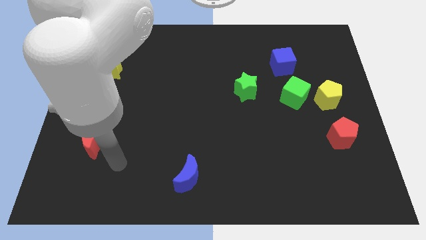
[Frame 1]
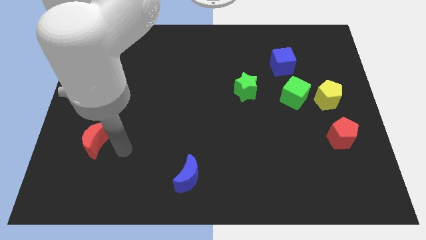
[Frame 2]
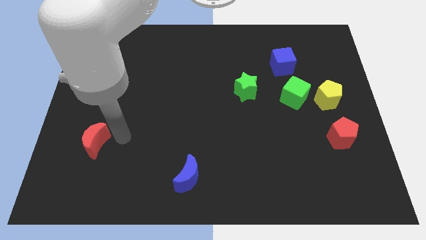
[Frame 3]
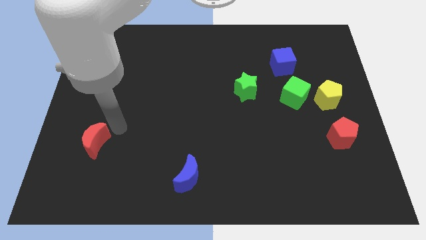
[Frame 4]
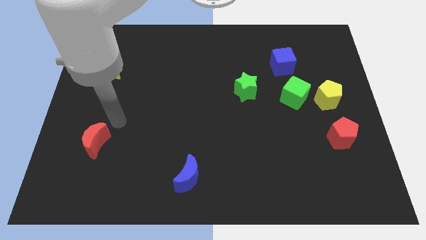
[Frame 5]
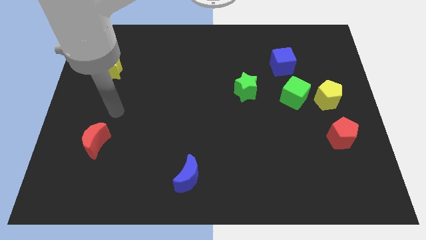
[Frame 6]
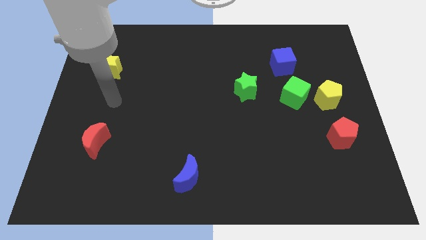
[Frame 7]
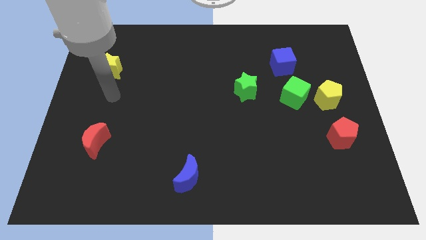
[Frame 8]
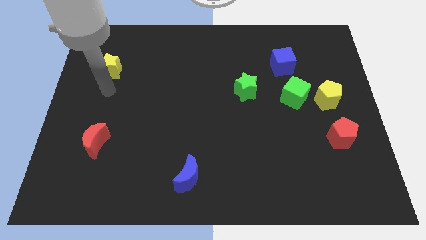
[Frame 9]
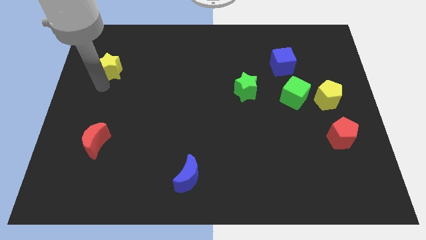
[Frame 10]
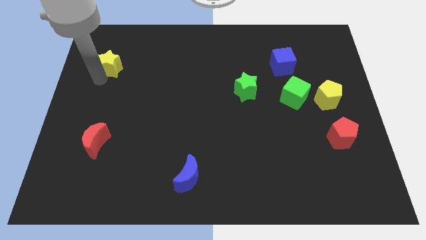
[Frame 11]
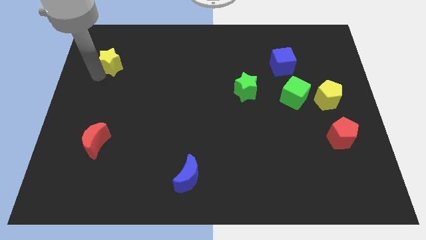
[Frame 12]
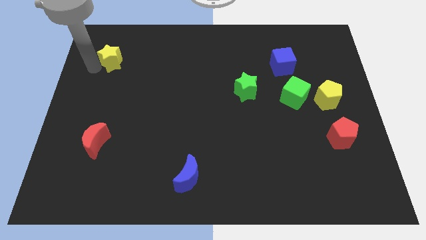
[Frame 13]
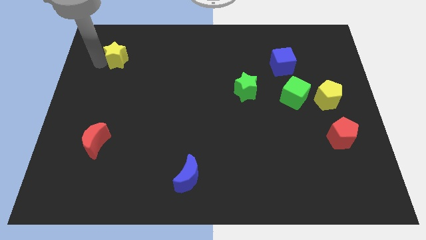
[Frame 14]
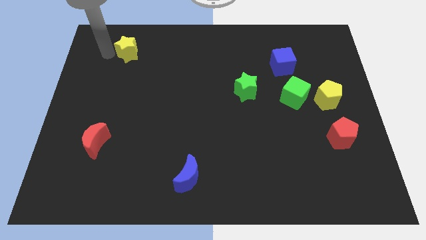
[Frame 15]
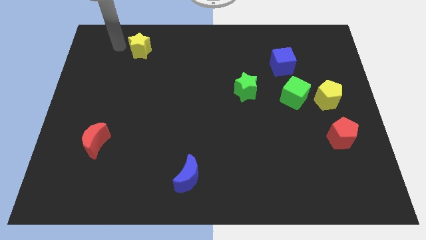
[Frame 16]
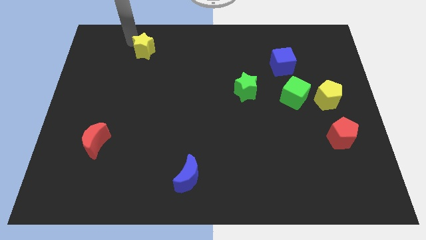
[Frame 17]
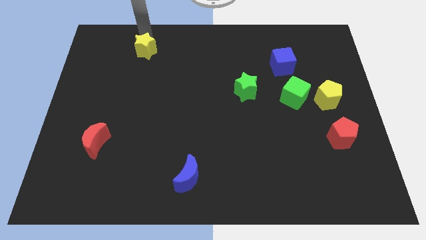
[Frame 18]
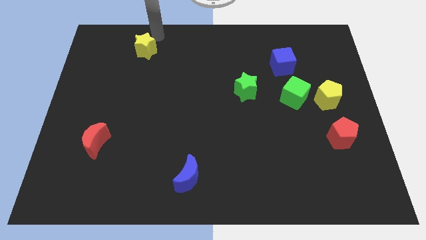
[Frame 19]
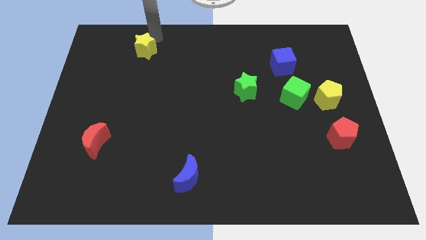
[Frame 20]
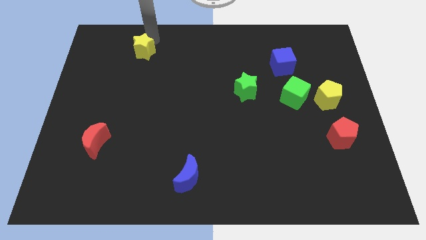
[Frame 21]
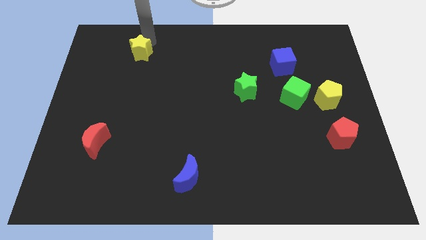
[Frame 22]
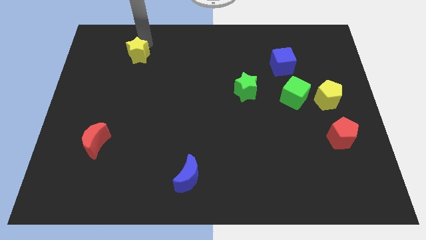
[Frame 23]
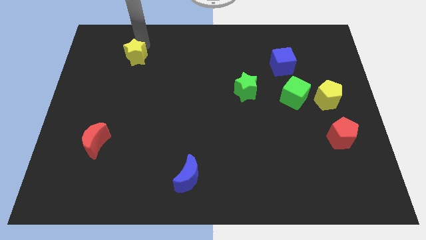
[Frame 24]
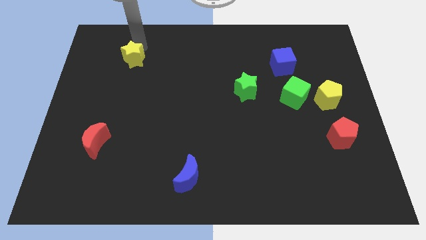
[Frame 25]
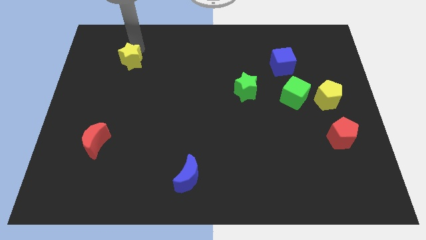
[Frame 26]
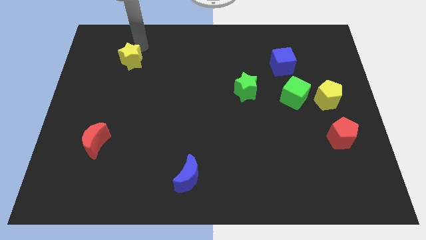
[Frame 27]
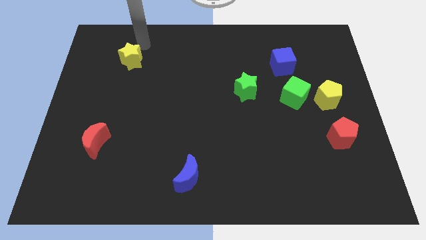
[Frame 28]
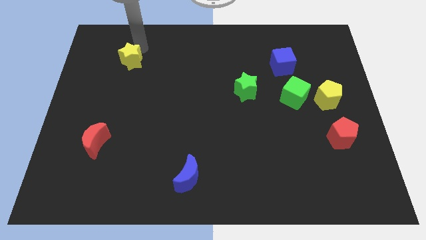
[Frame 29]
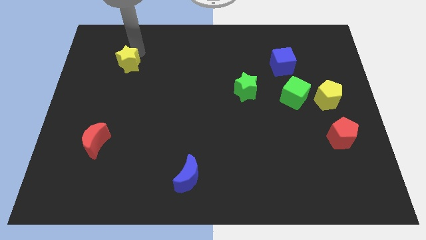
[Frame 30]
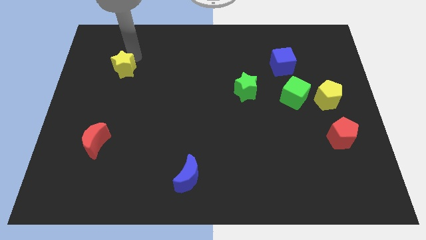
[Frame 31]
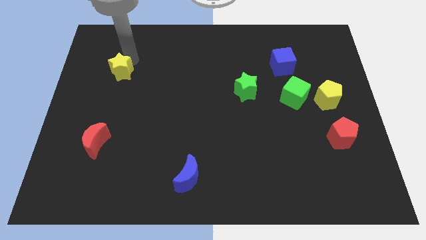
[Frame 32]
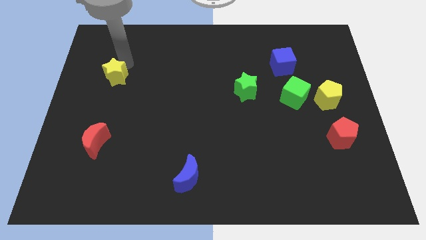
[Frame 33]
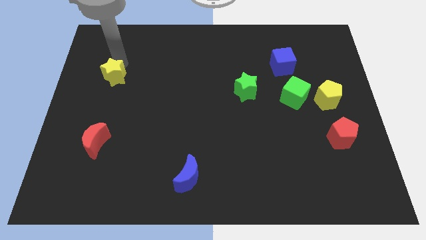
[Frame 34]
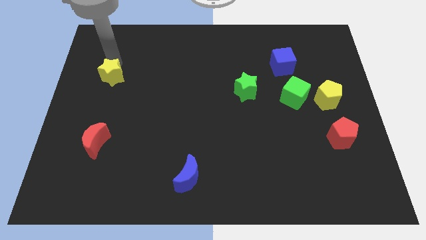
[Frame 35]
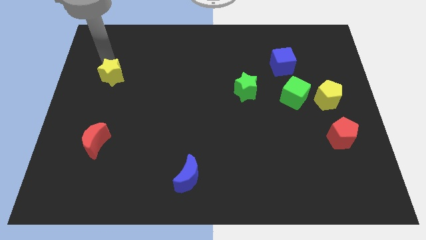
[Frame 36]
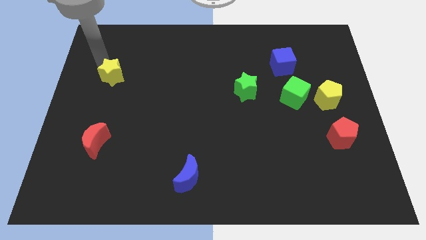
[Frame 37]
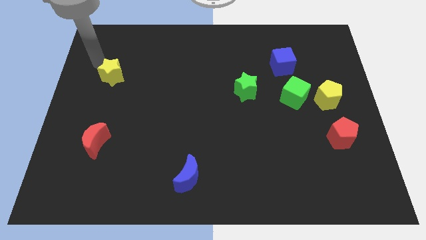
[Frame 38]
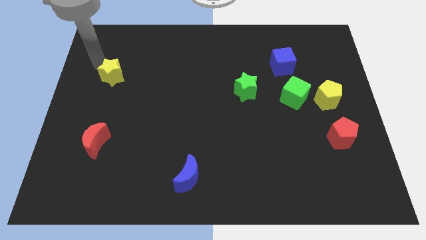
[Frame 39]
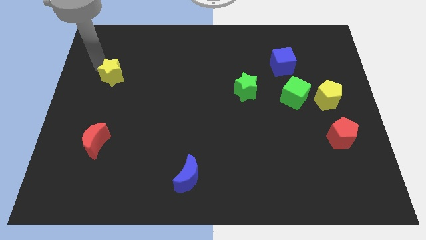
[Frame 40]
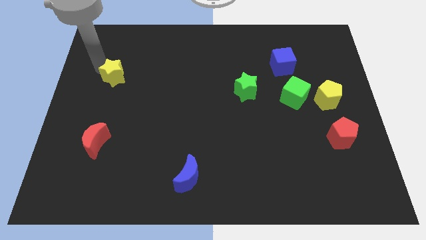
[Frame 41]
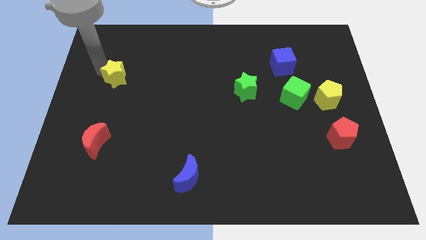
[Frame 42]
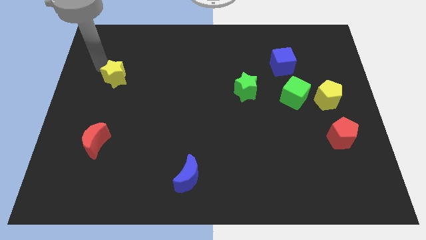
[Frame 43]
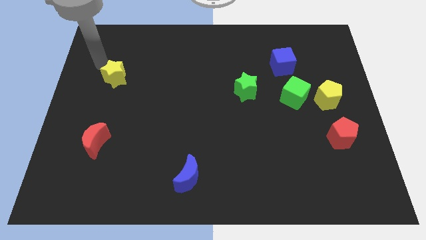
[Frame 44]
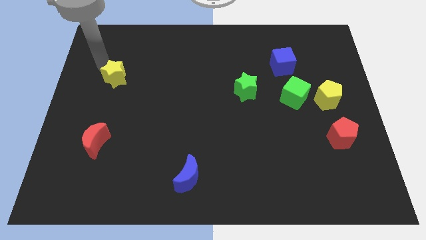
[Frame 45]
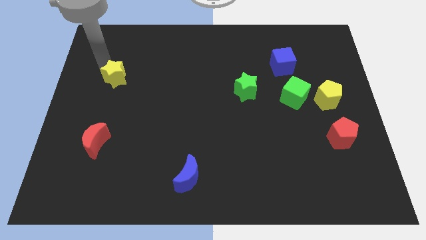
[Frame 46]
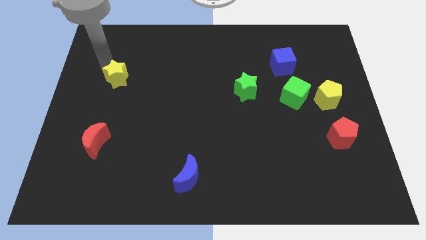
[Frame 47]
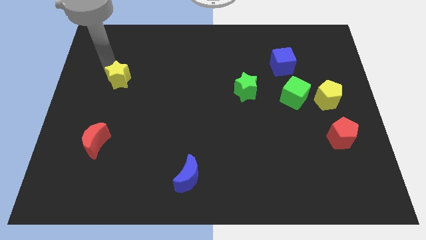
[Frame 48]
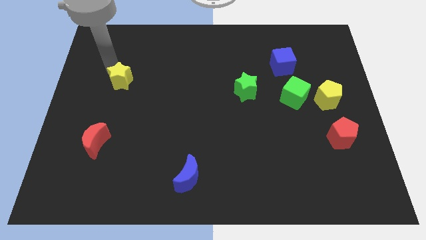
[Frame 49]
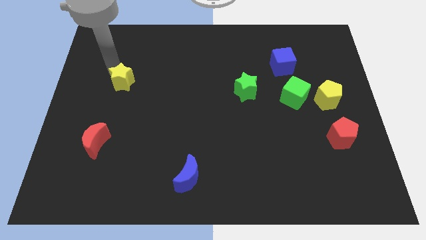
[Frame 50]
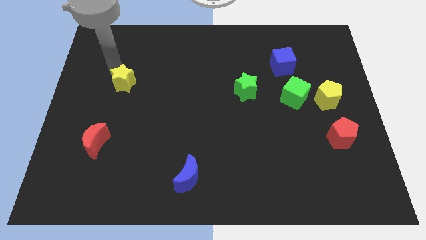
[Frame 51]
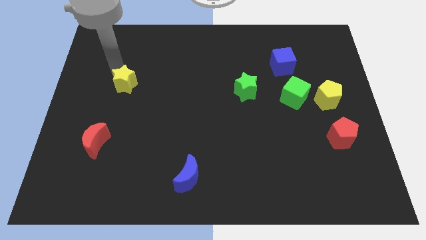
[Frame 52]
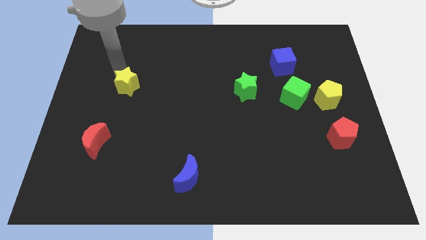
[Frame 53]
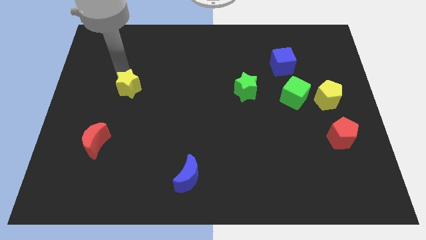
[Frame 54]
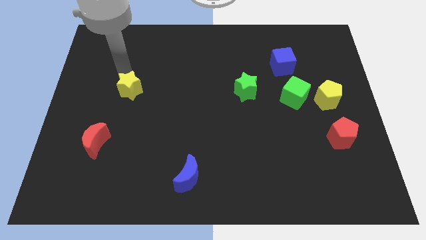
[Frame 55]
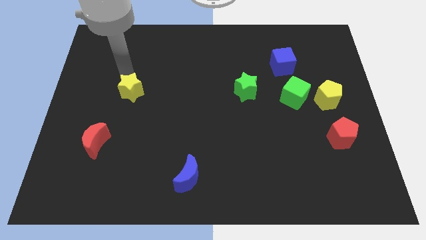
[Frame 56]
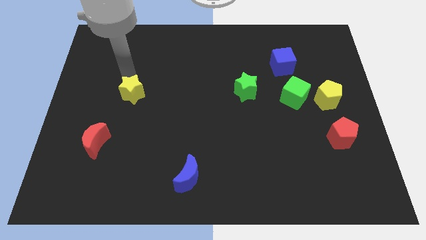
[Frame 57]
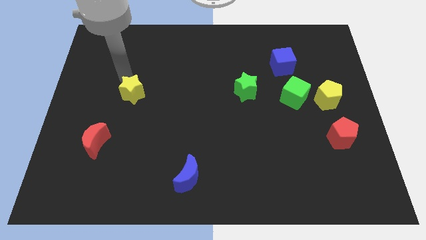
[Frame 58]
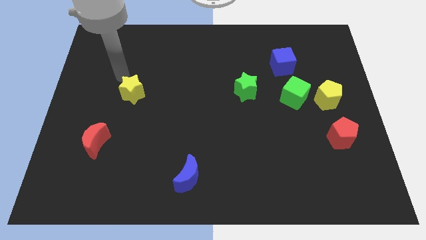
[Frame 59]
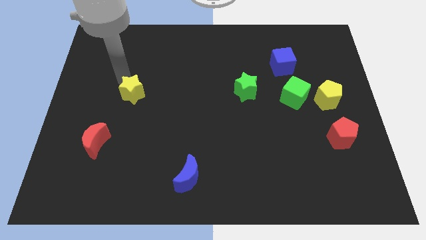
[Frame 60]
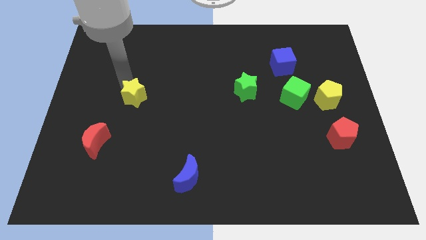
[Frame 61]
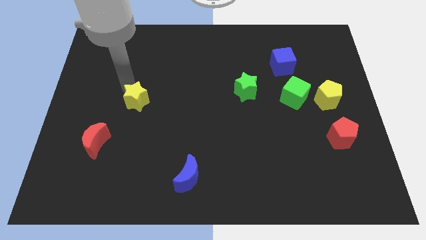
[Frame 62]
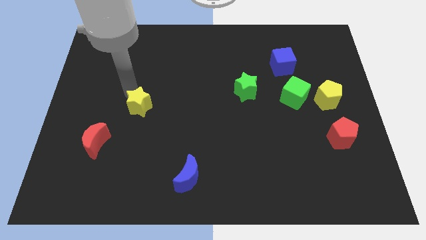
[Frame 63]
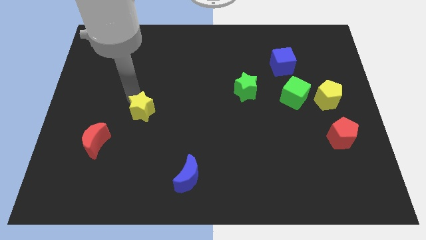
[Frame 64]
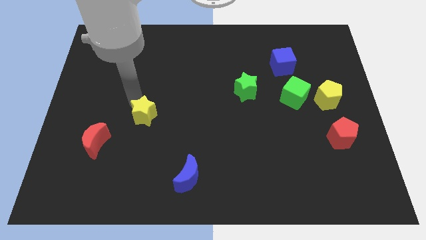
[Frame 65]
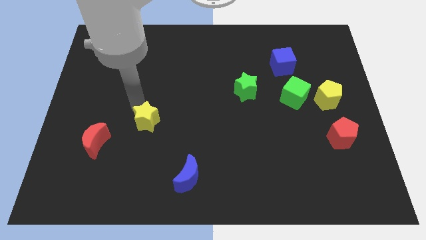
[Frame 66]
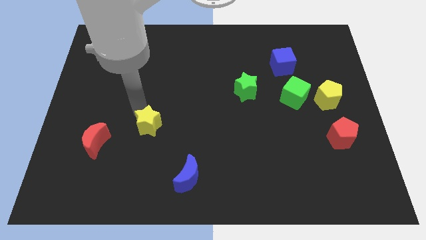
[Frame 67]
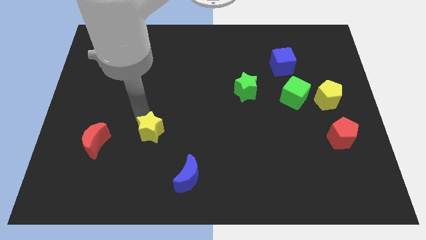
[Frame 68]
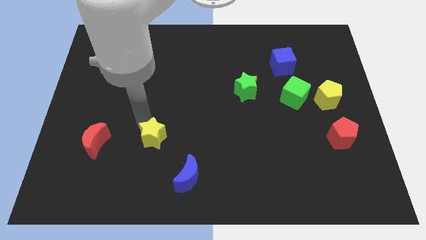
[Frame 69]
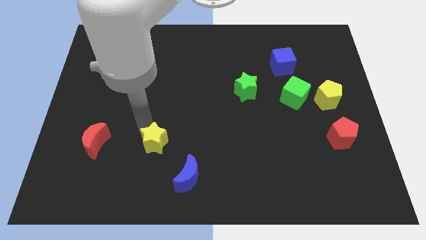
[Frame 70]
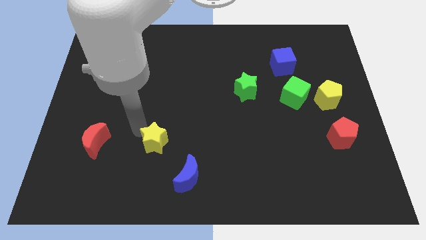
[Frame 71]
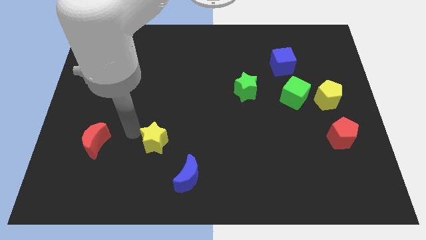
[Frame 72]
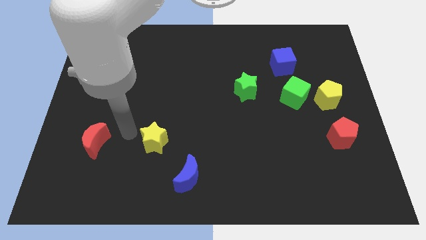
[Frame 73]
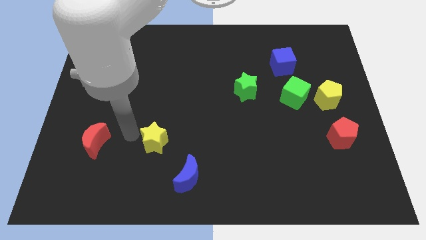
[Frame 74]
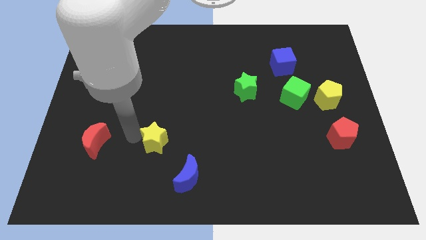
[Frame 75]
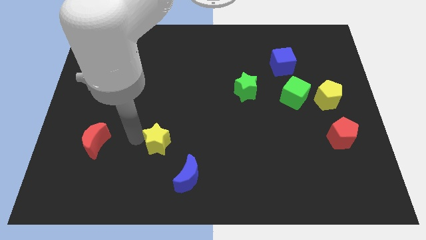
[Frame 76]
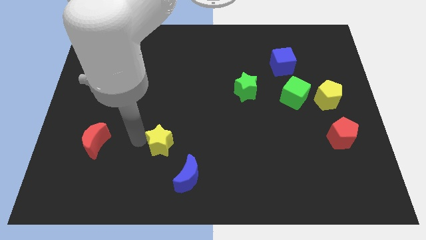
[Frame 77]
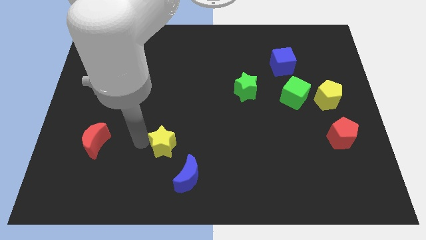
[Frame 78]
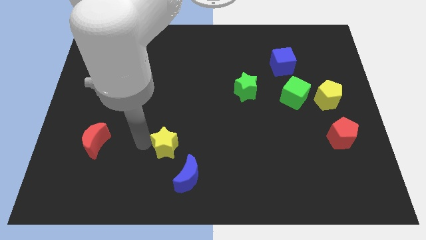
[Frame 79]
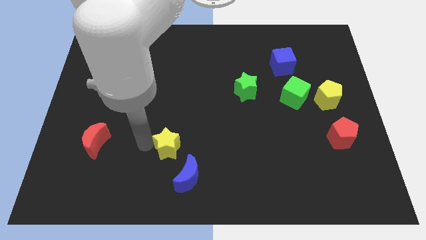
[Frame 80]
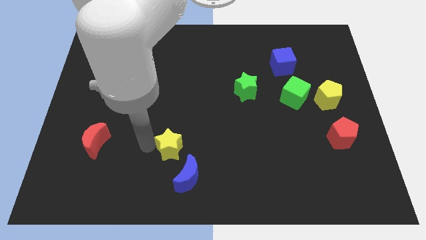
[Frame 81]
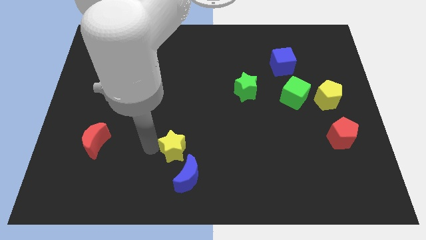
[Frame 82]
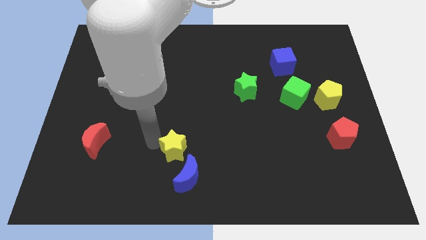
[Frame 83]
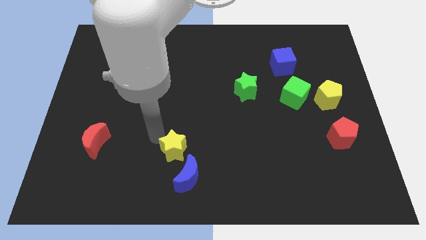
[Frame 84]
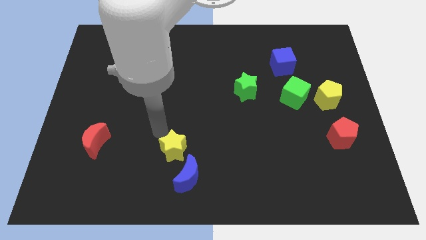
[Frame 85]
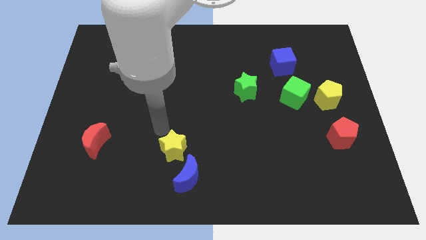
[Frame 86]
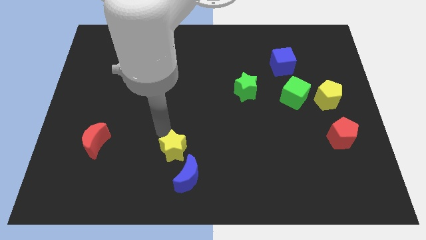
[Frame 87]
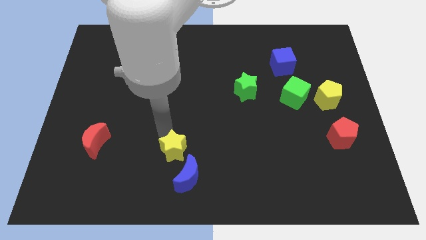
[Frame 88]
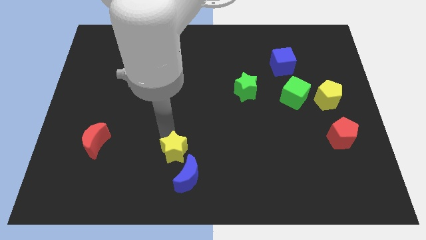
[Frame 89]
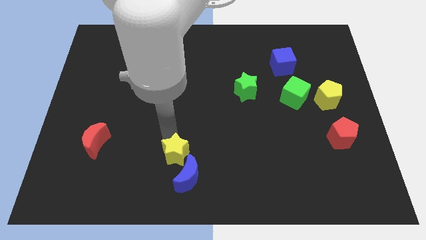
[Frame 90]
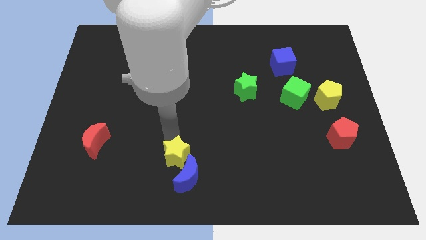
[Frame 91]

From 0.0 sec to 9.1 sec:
move the yellow star close to the blue moon
